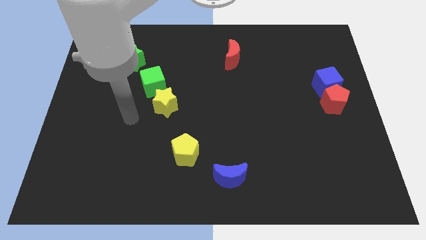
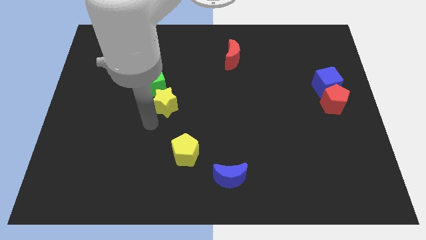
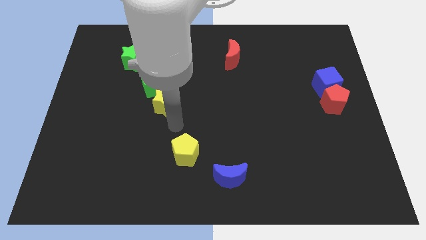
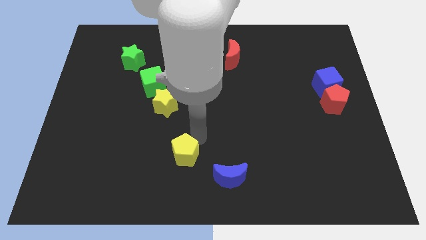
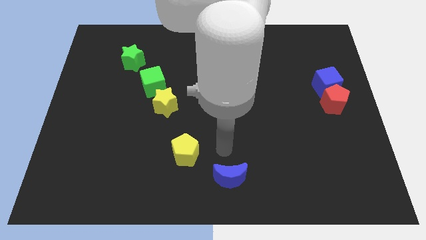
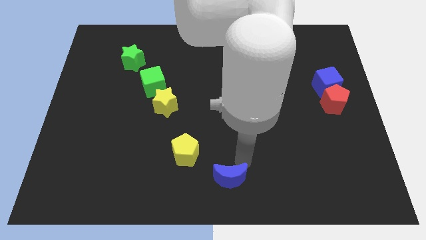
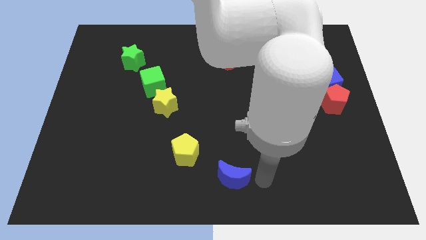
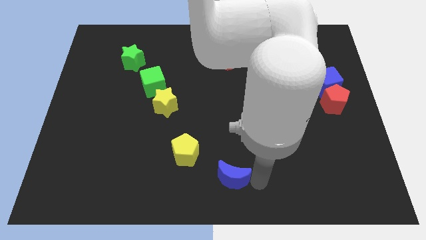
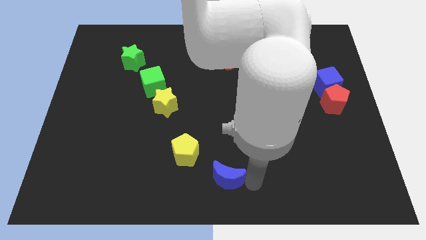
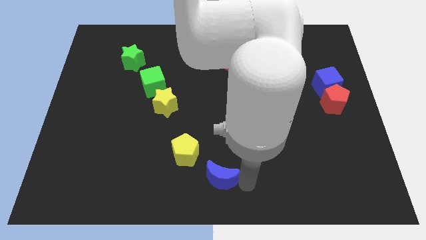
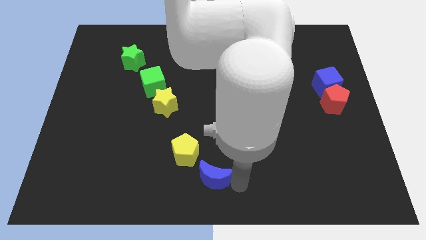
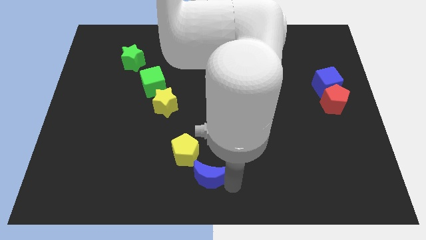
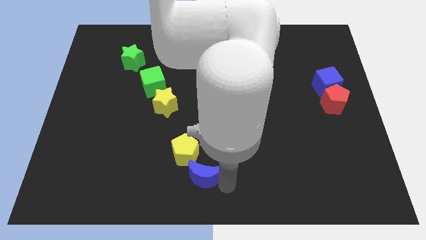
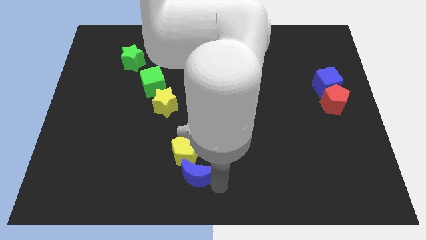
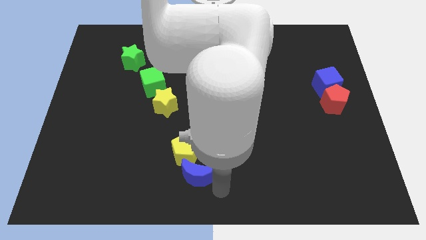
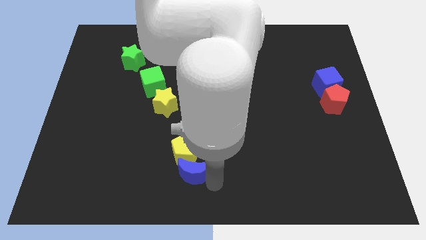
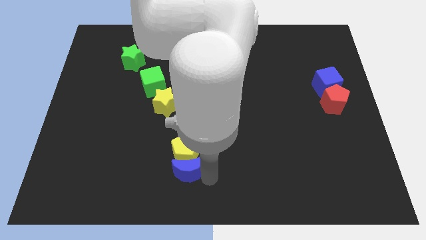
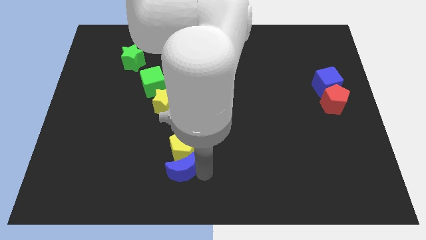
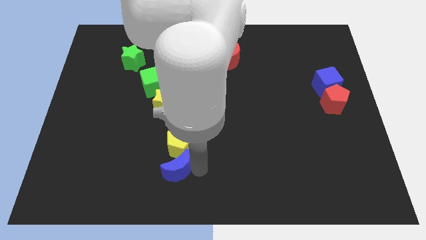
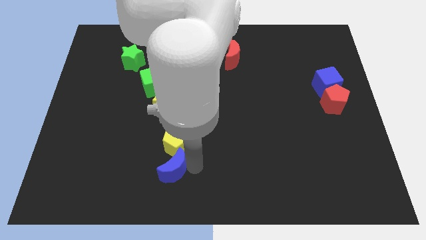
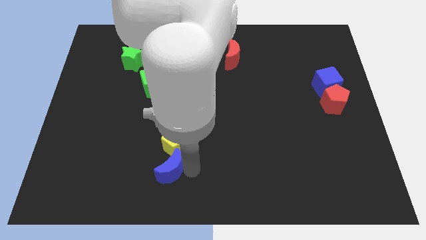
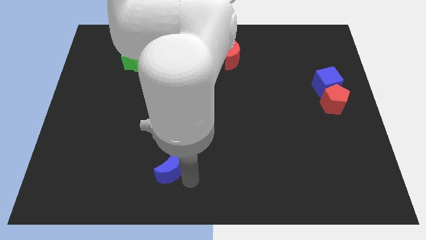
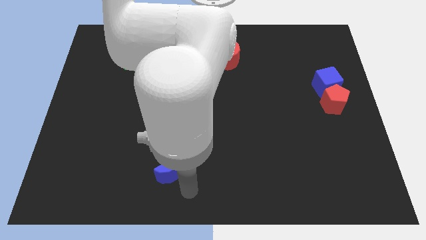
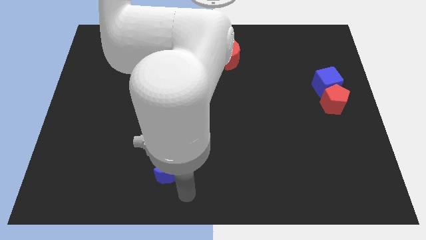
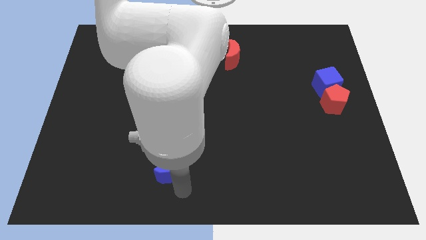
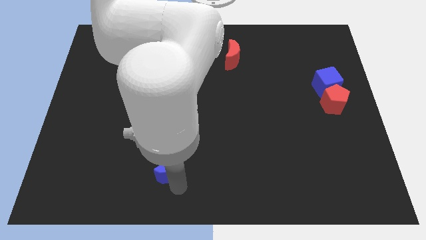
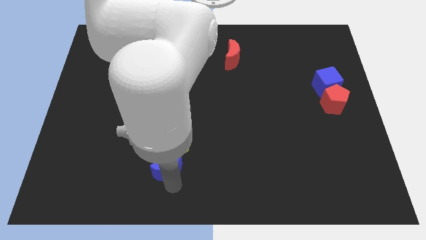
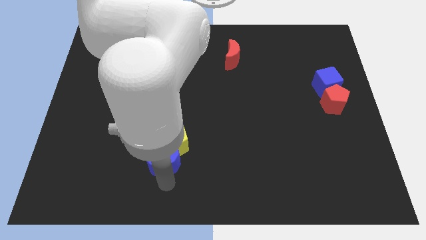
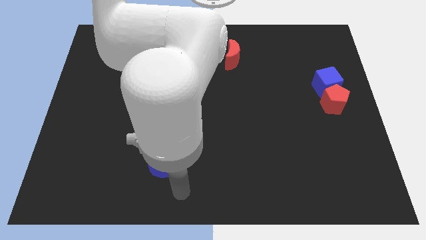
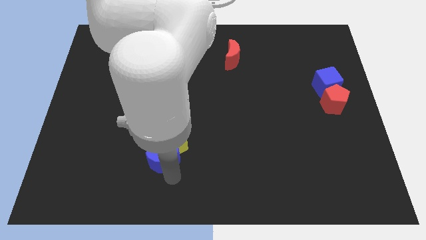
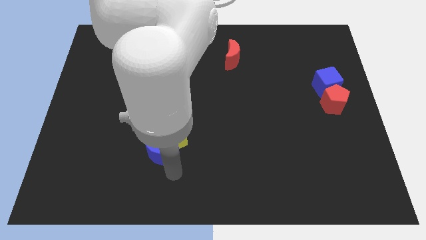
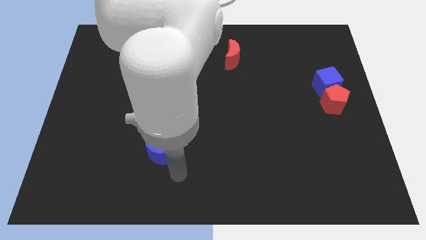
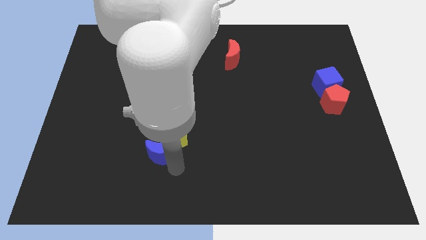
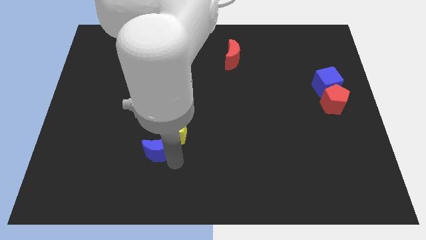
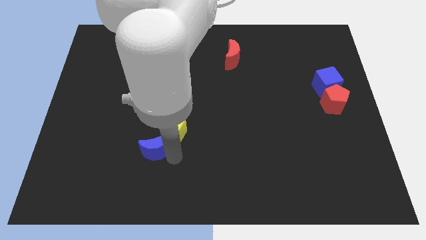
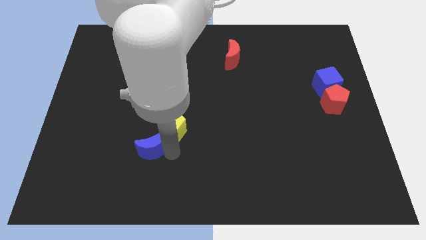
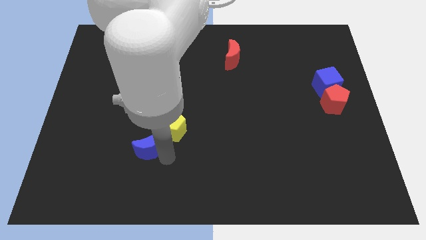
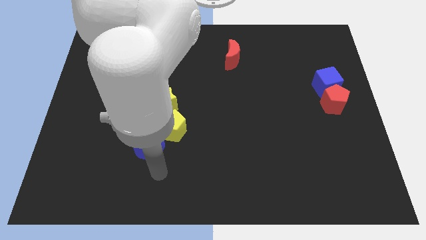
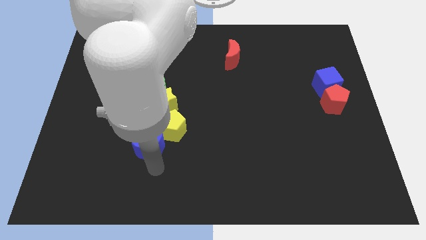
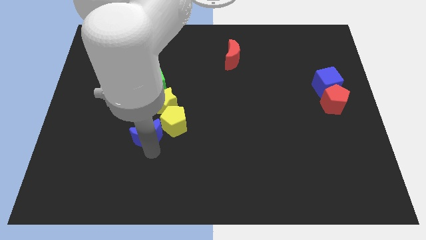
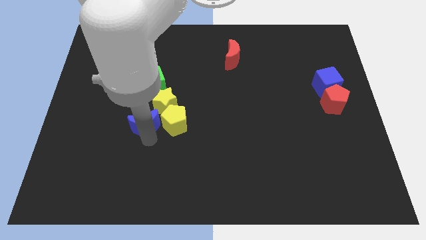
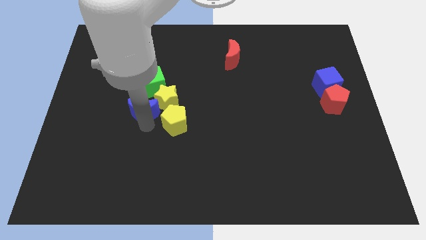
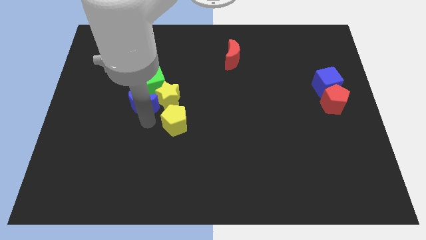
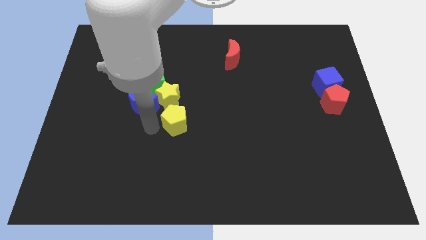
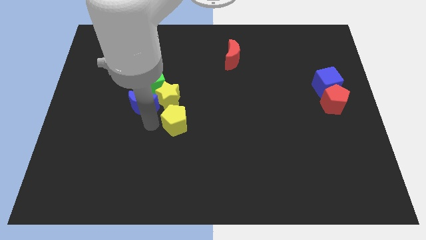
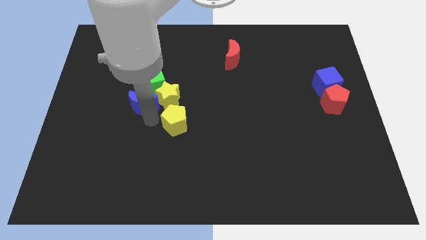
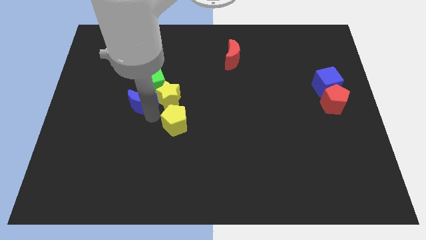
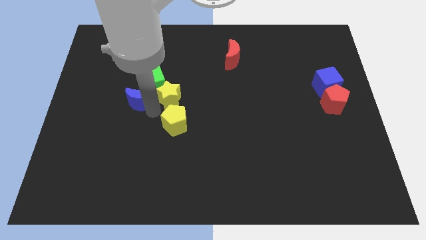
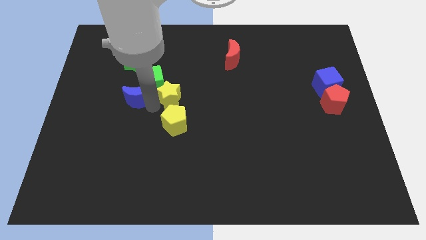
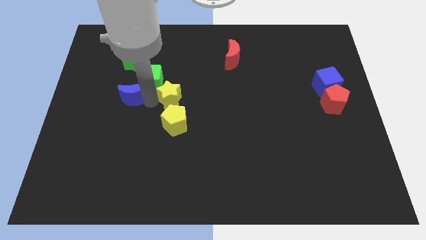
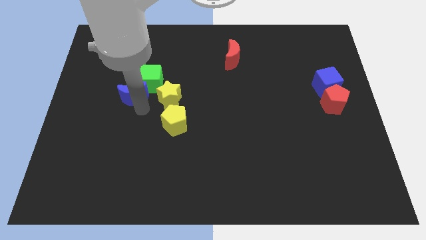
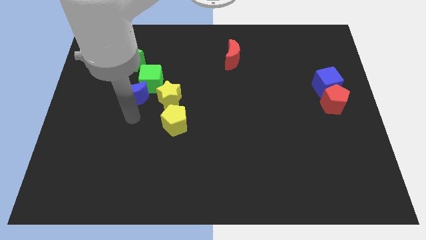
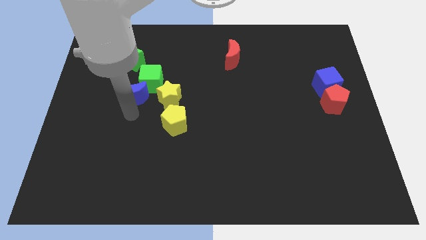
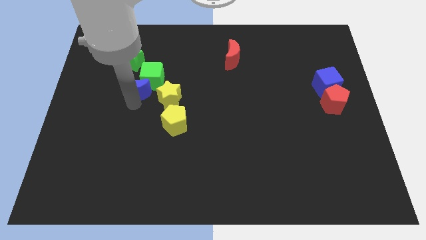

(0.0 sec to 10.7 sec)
put the blue moon diagonally up and to the left of the yellow star

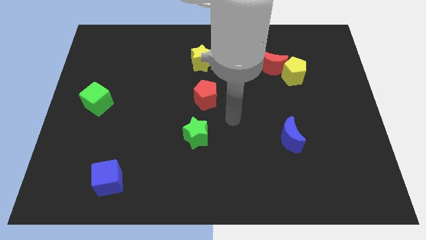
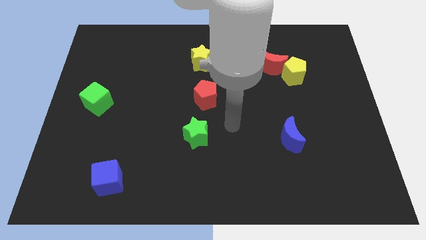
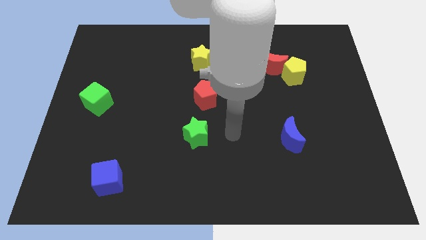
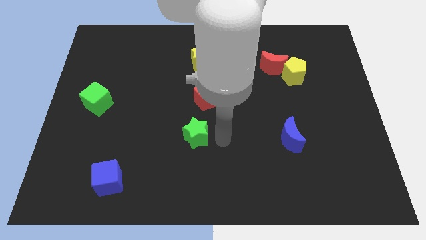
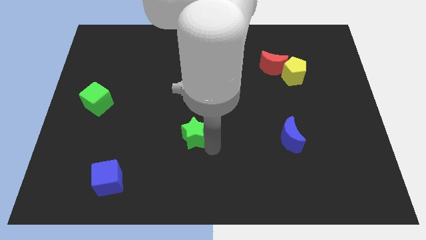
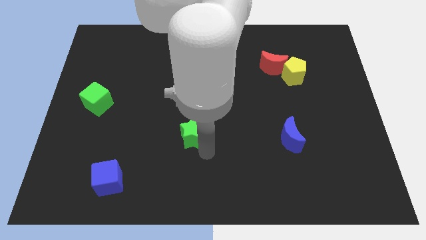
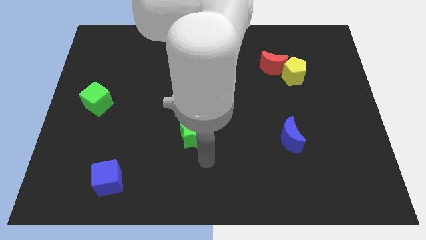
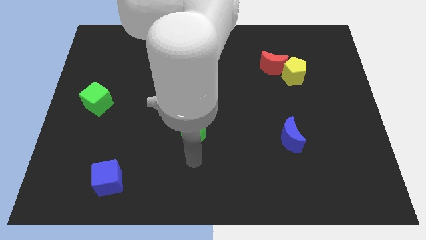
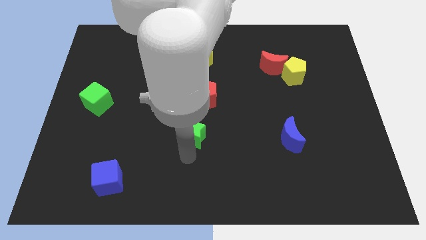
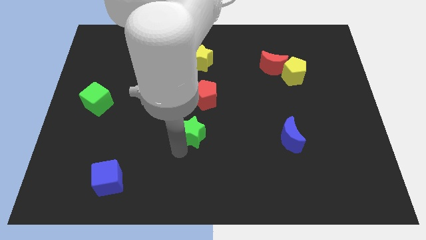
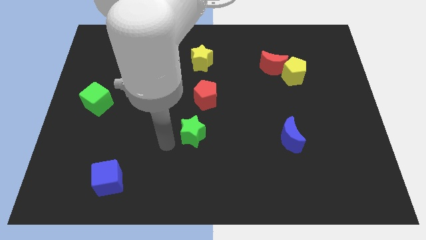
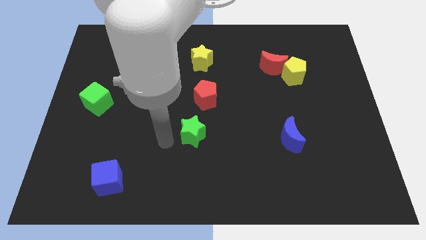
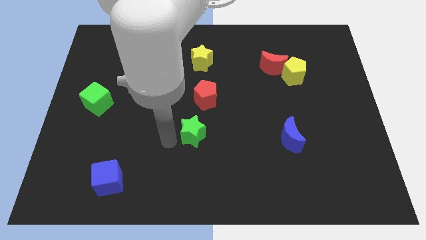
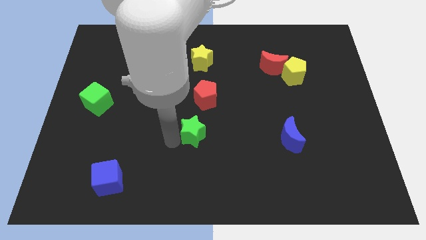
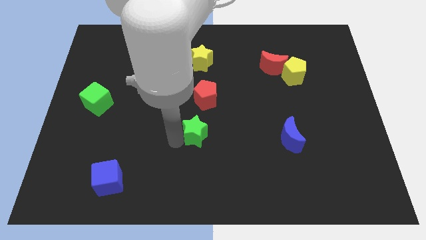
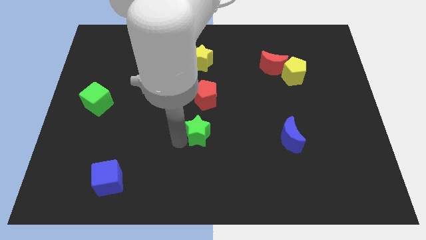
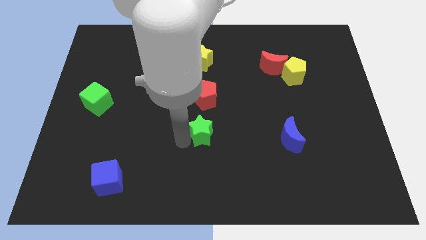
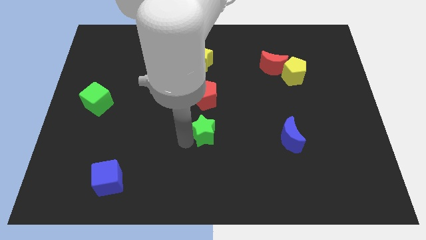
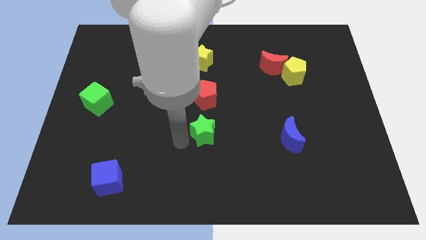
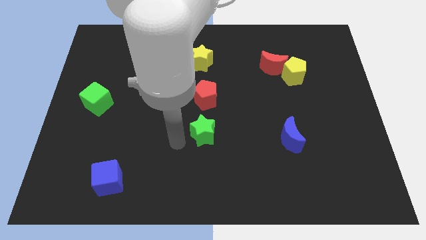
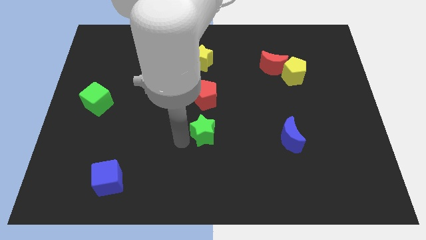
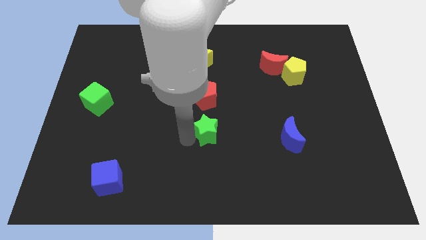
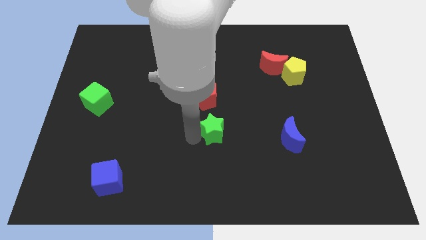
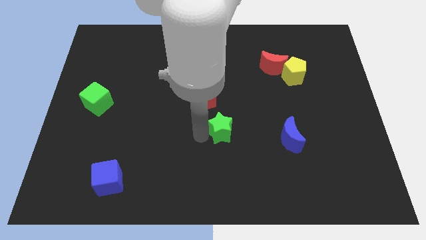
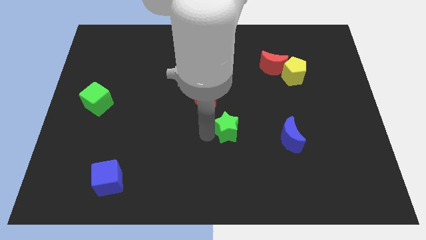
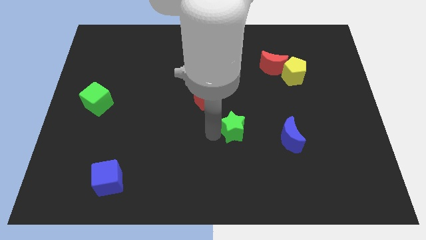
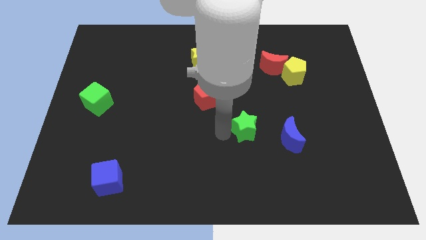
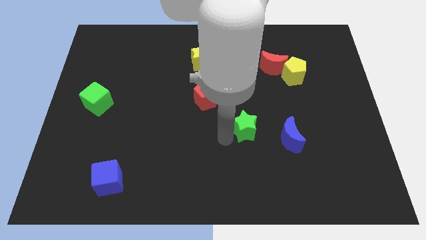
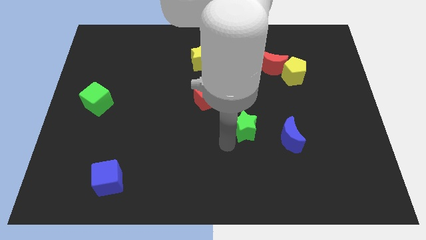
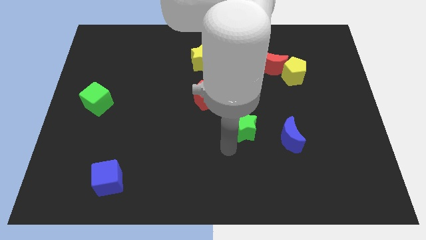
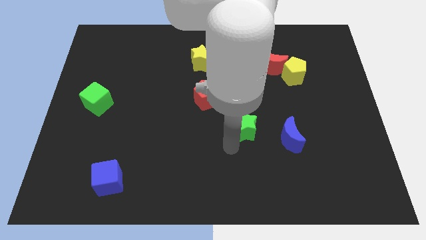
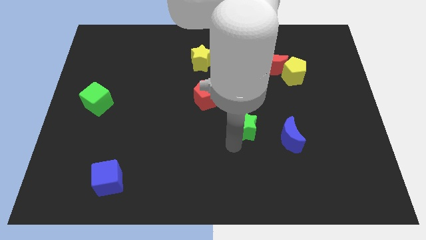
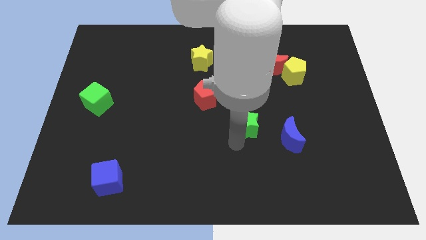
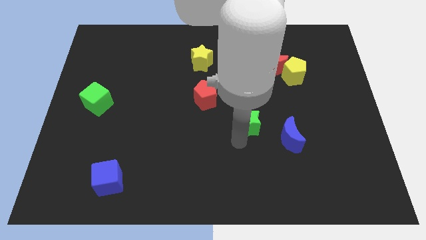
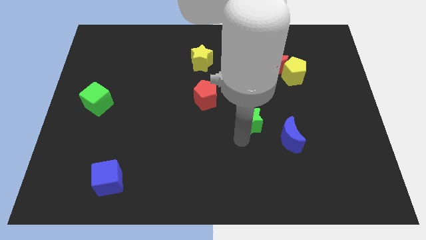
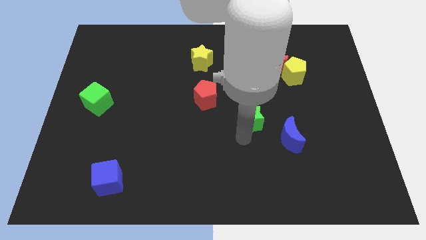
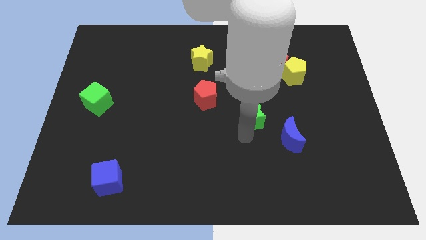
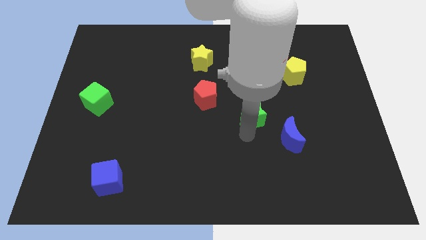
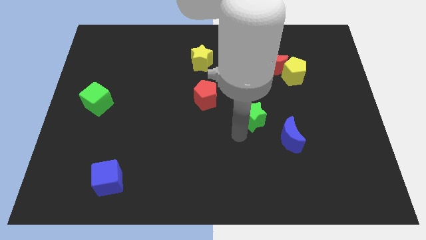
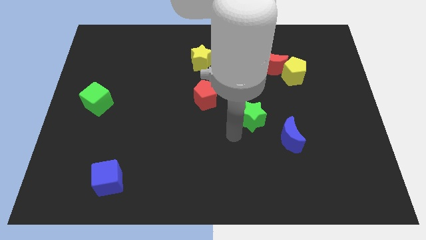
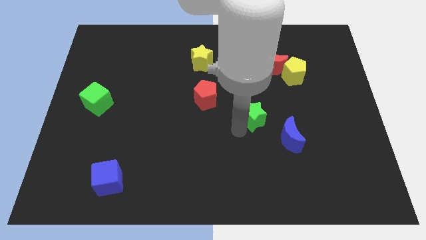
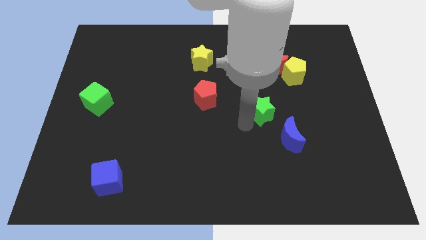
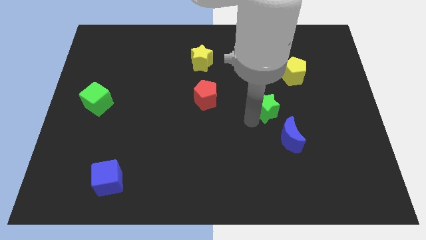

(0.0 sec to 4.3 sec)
put the green star to the bottom of the red moon
